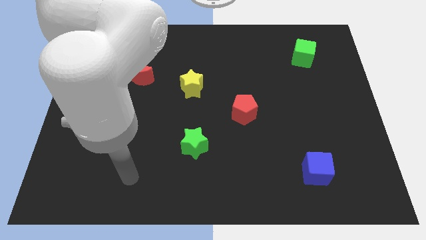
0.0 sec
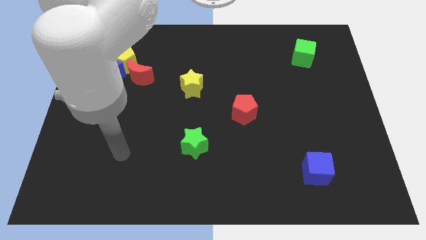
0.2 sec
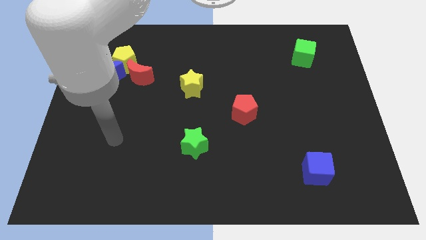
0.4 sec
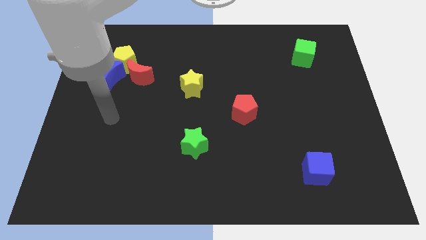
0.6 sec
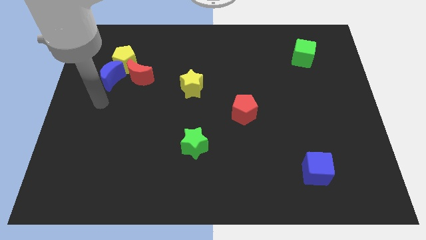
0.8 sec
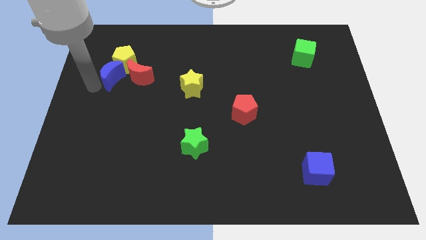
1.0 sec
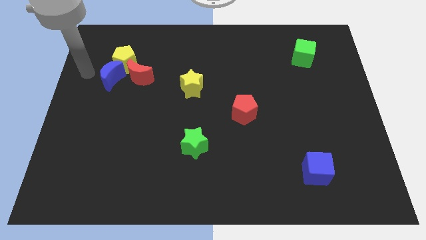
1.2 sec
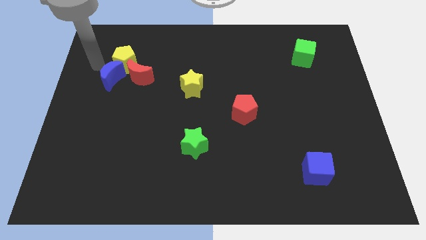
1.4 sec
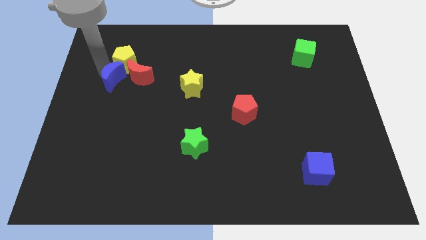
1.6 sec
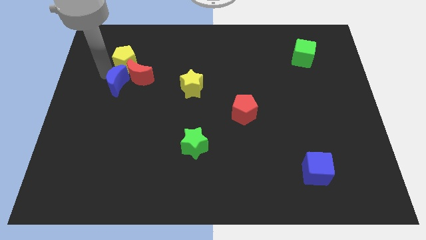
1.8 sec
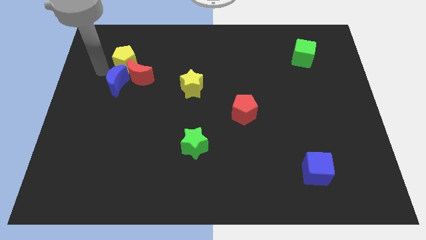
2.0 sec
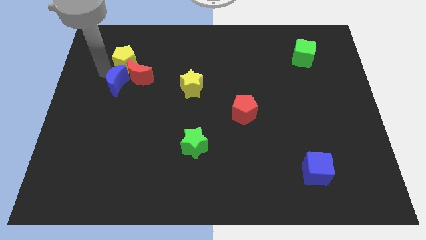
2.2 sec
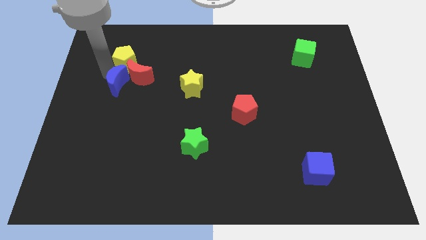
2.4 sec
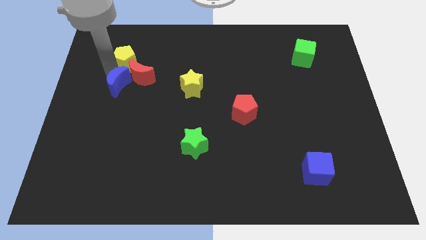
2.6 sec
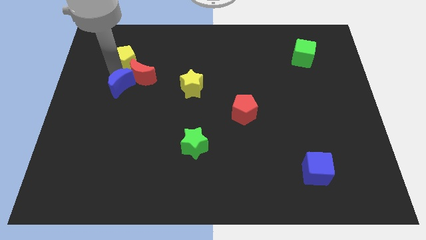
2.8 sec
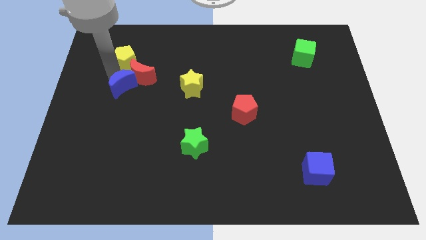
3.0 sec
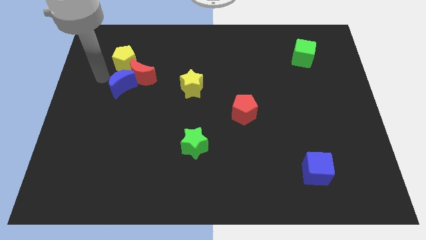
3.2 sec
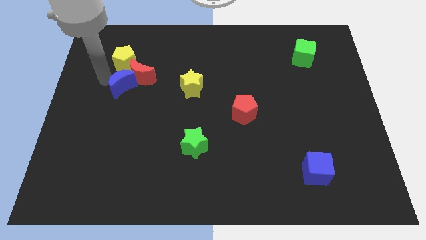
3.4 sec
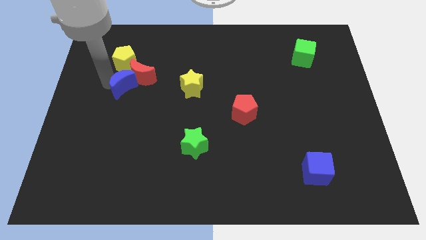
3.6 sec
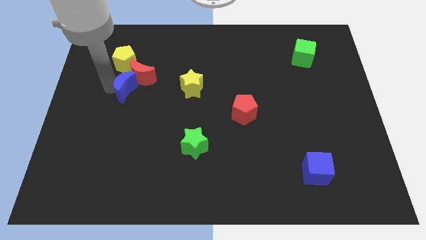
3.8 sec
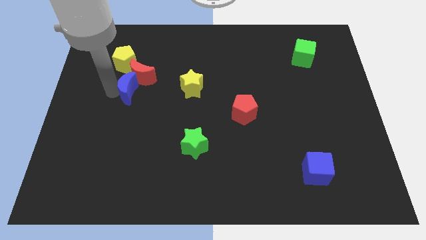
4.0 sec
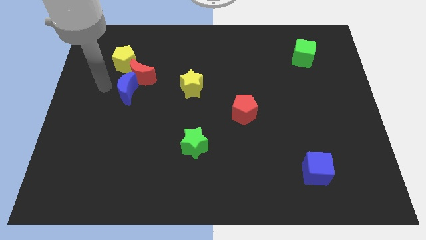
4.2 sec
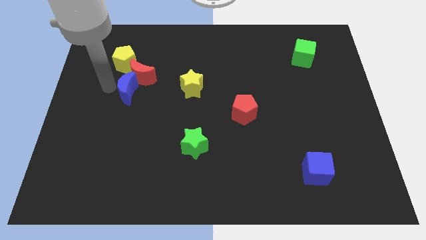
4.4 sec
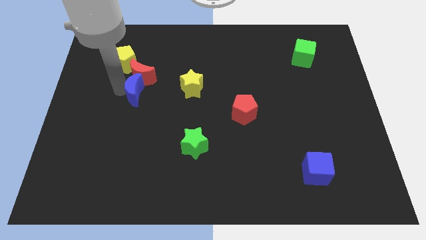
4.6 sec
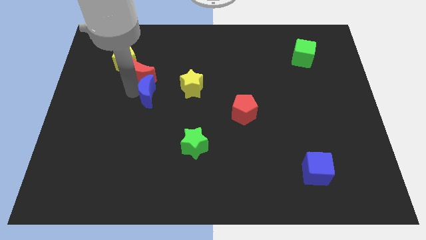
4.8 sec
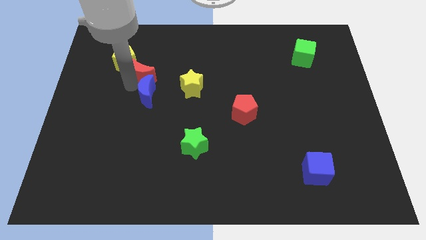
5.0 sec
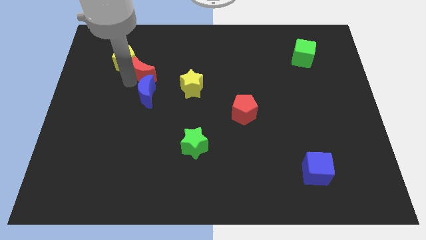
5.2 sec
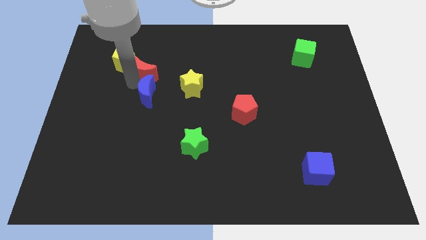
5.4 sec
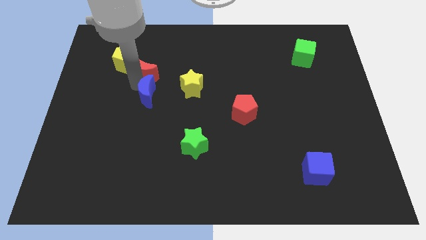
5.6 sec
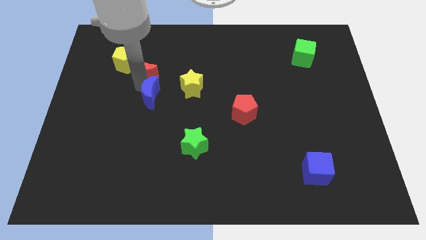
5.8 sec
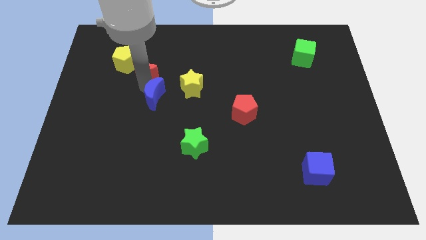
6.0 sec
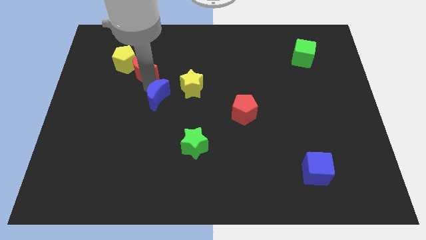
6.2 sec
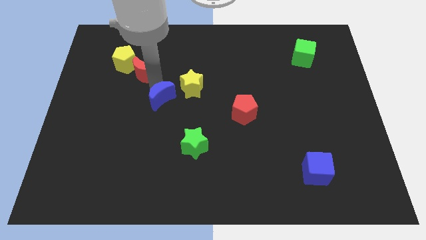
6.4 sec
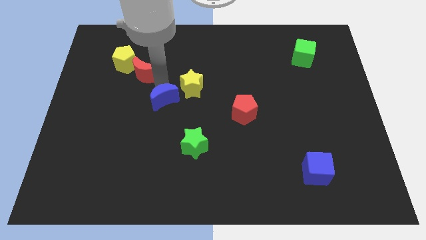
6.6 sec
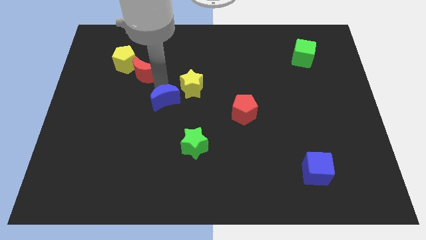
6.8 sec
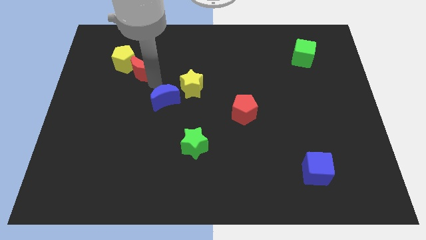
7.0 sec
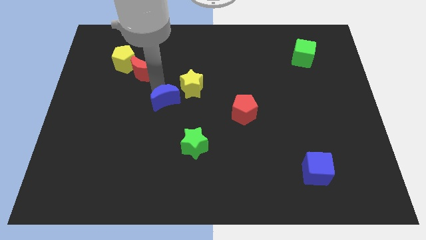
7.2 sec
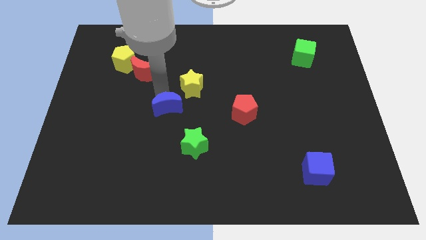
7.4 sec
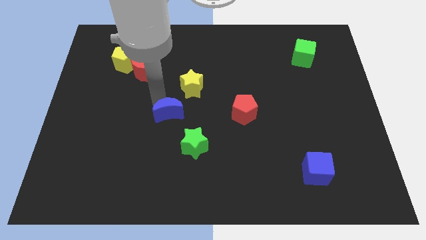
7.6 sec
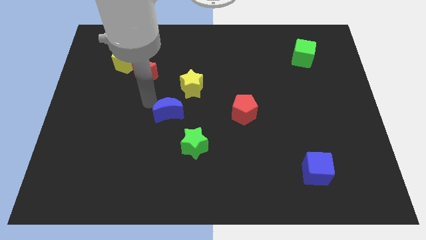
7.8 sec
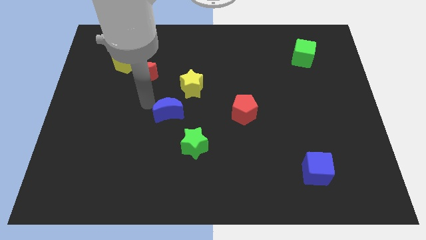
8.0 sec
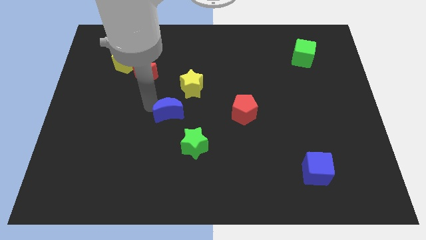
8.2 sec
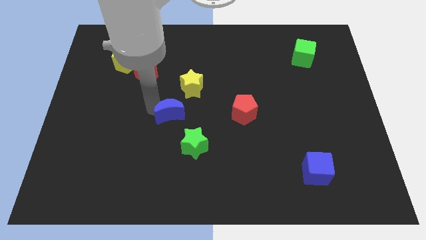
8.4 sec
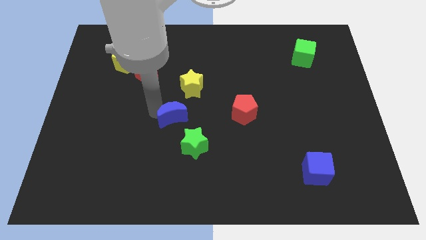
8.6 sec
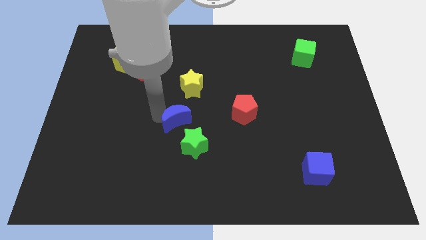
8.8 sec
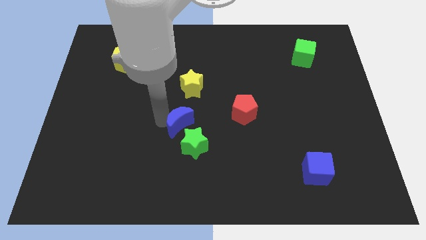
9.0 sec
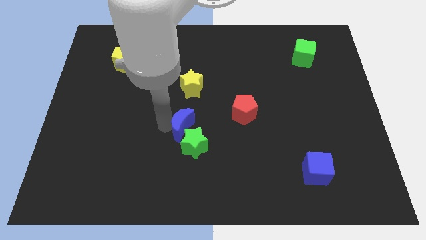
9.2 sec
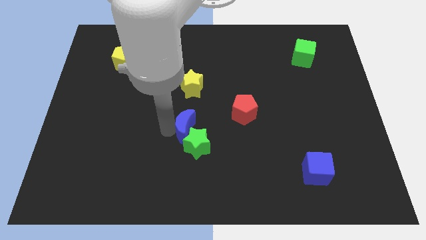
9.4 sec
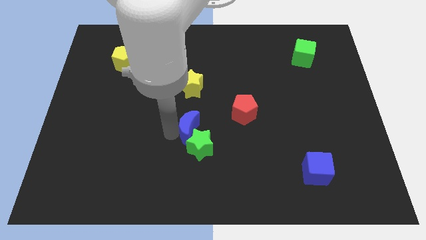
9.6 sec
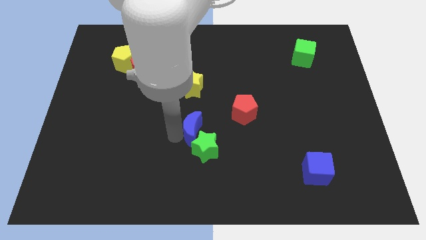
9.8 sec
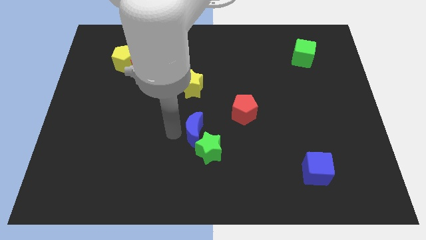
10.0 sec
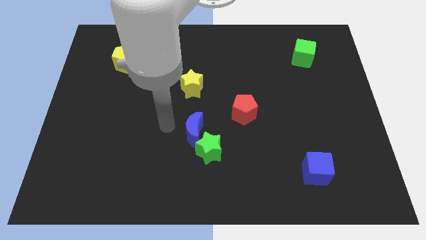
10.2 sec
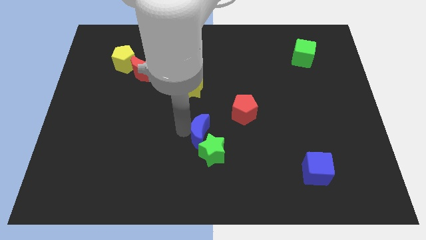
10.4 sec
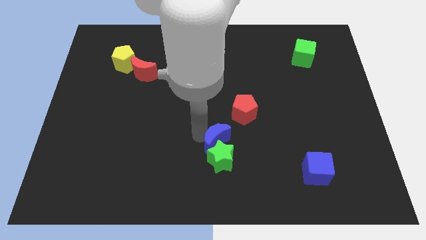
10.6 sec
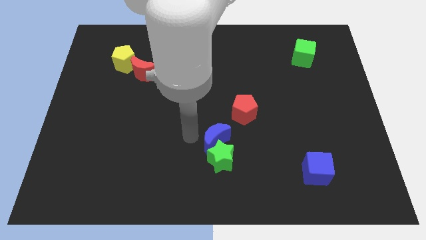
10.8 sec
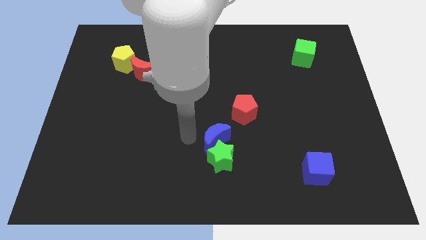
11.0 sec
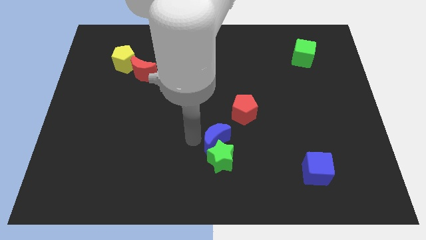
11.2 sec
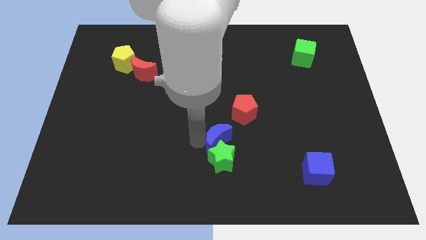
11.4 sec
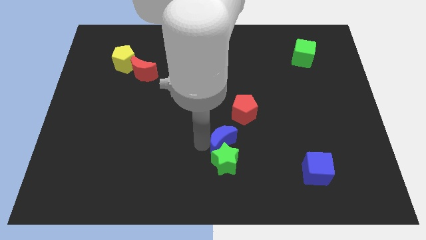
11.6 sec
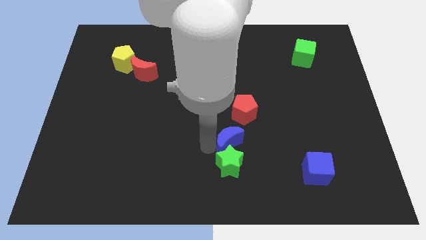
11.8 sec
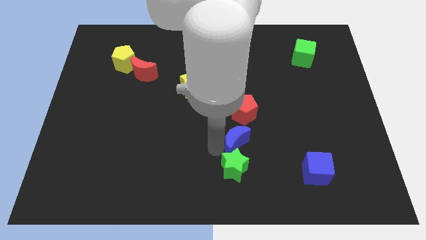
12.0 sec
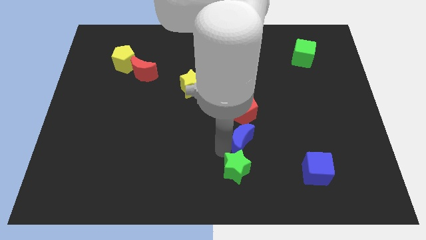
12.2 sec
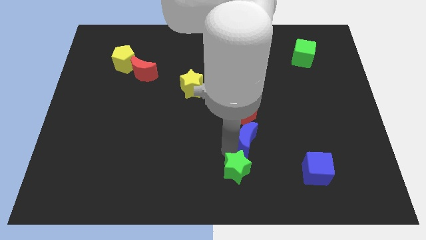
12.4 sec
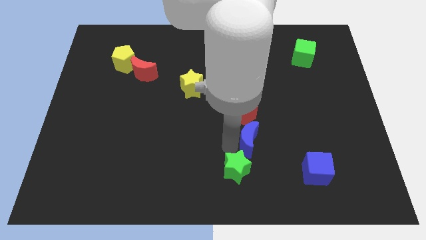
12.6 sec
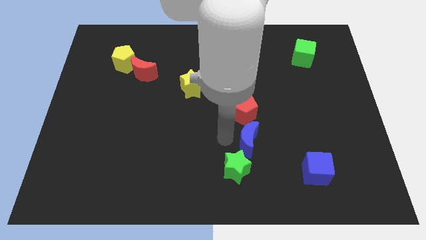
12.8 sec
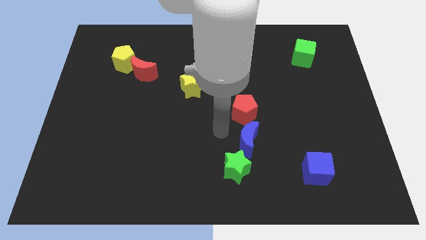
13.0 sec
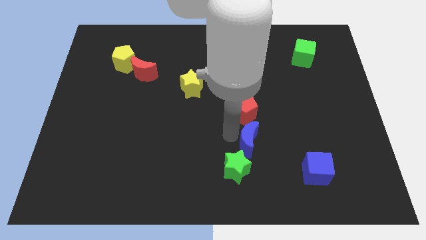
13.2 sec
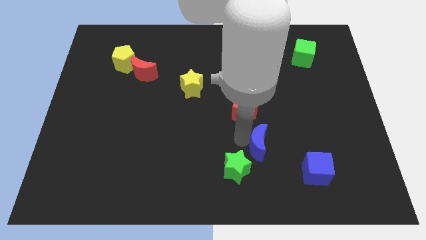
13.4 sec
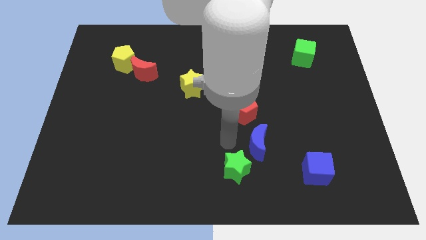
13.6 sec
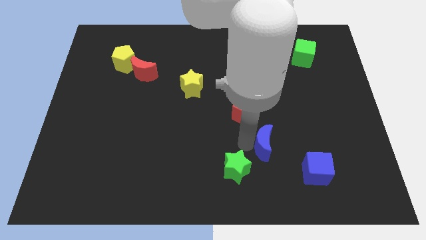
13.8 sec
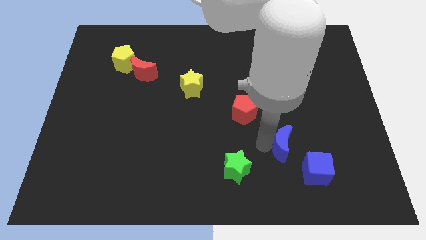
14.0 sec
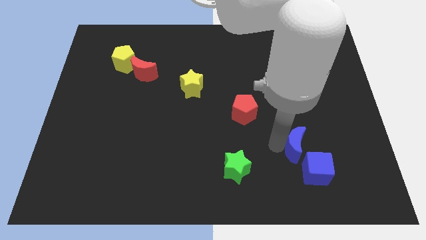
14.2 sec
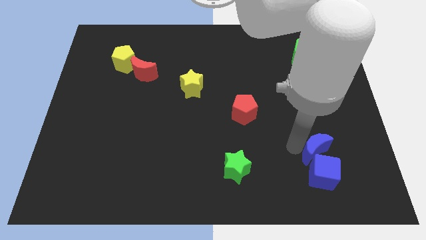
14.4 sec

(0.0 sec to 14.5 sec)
slide the blue moon to the top right side of the blue cube
